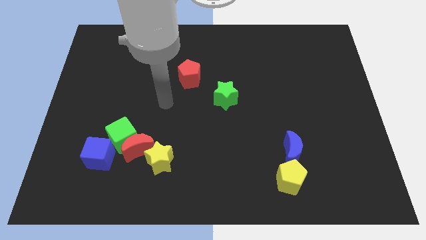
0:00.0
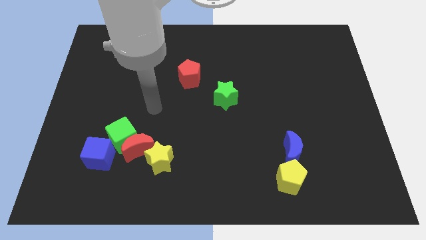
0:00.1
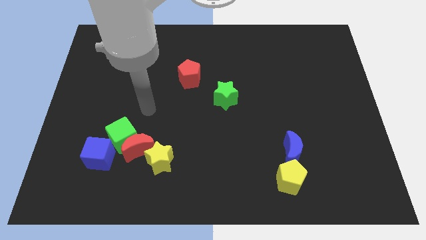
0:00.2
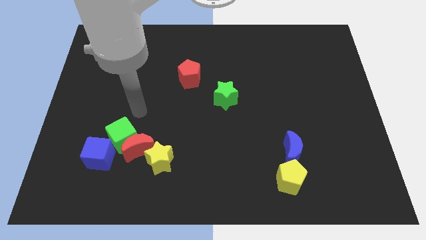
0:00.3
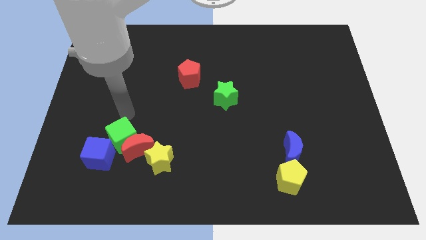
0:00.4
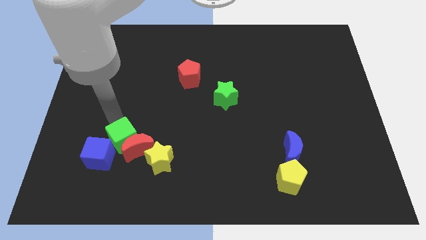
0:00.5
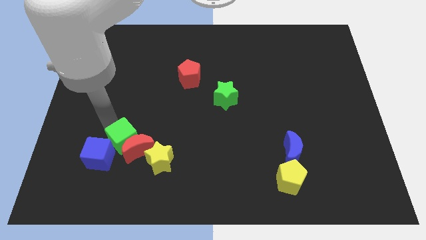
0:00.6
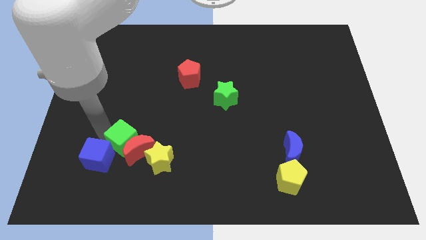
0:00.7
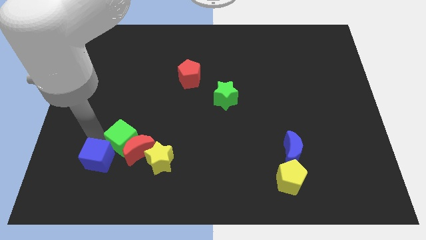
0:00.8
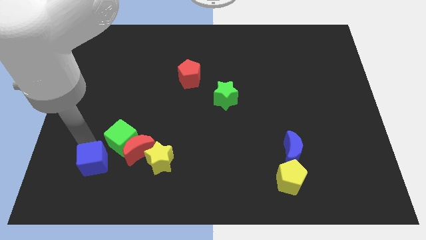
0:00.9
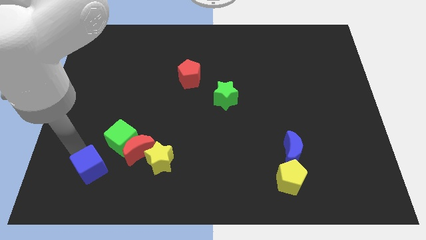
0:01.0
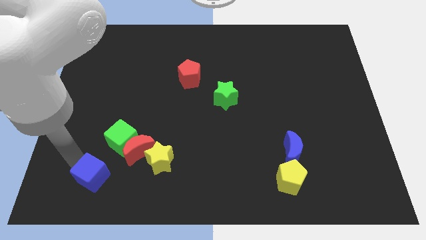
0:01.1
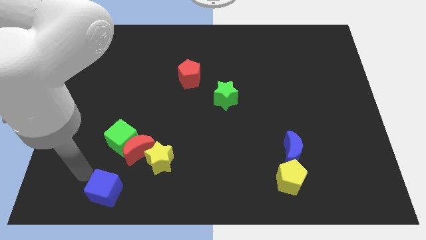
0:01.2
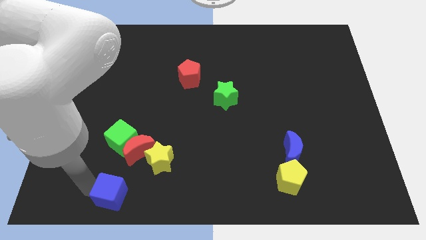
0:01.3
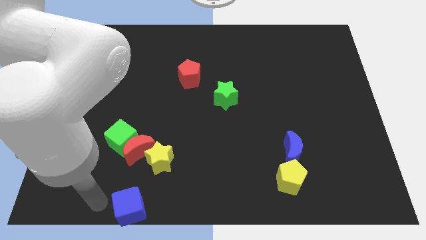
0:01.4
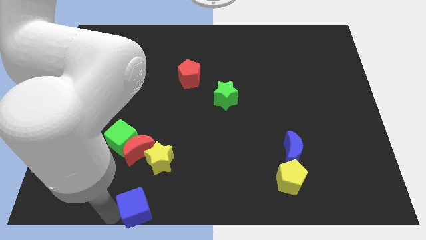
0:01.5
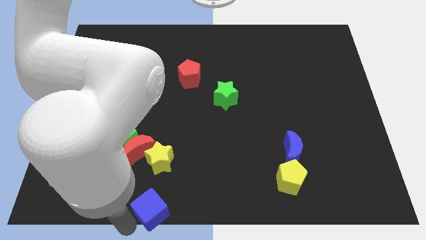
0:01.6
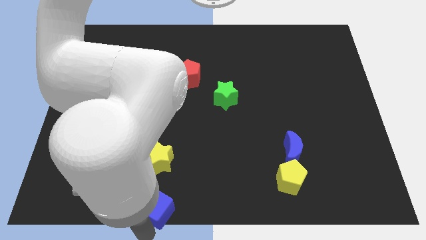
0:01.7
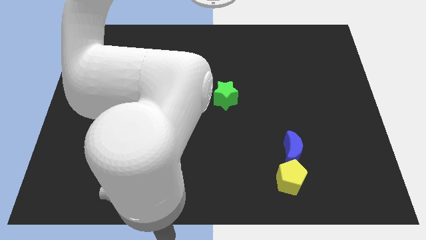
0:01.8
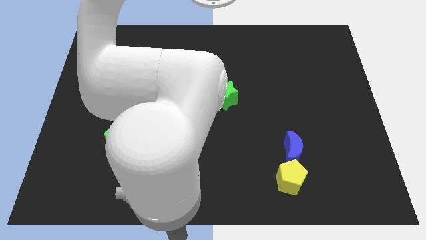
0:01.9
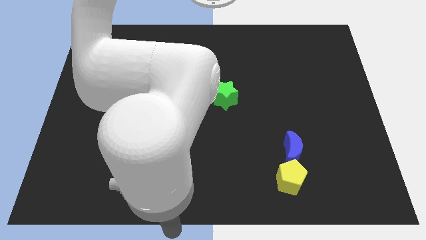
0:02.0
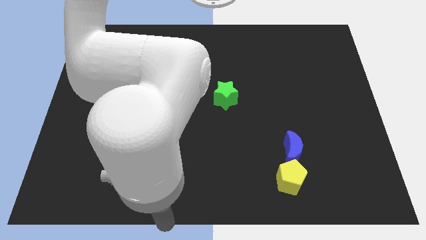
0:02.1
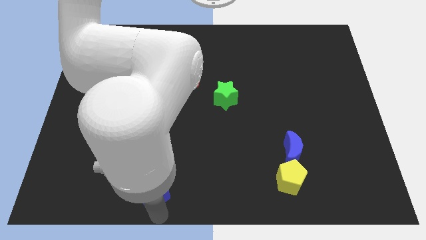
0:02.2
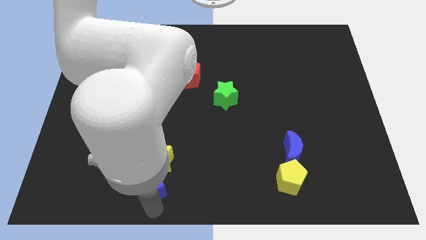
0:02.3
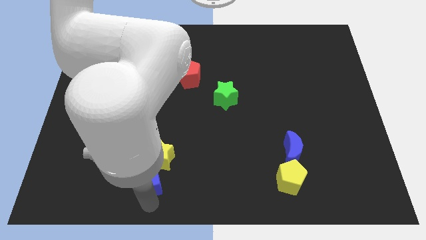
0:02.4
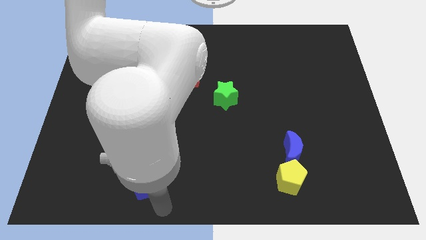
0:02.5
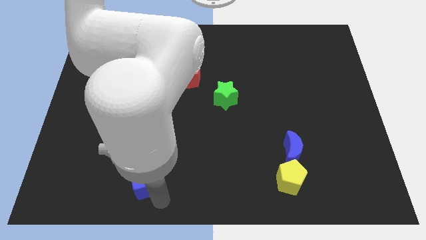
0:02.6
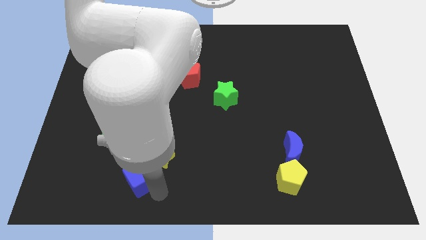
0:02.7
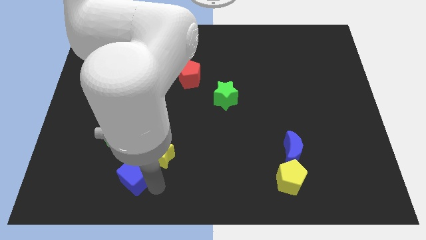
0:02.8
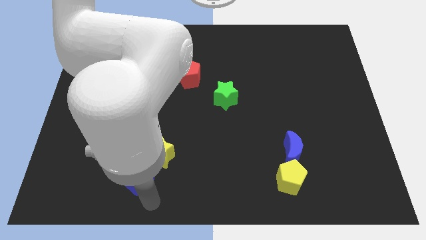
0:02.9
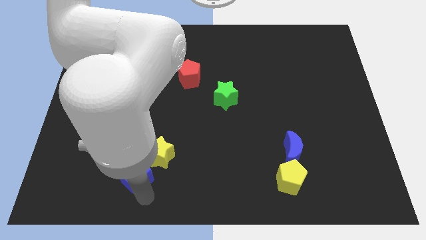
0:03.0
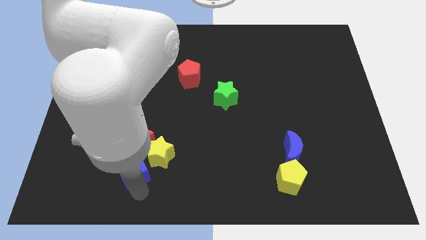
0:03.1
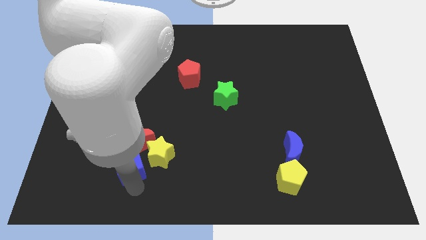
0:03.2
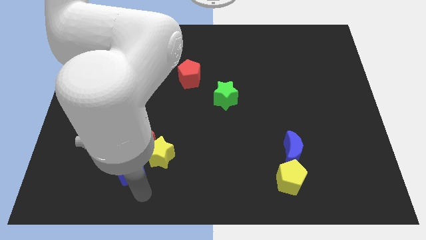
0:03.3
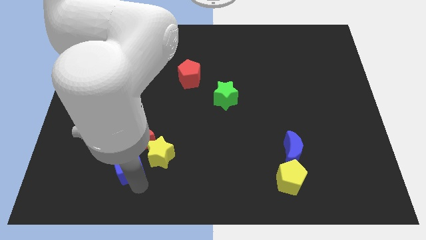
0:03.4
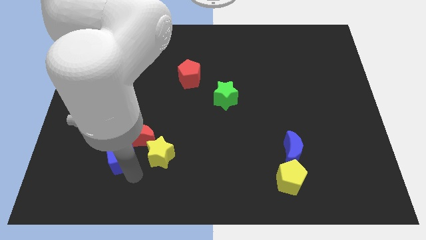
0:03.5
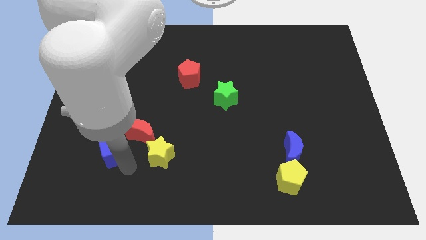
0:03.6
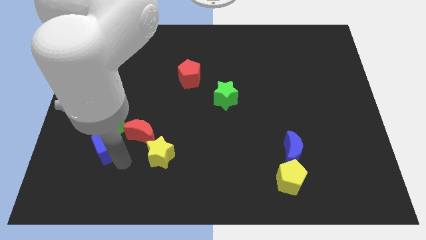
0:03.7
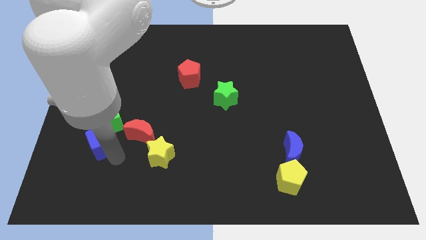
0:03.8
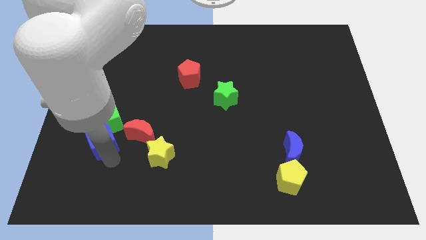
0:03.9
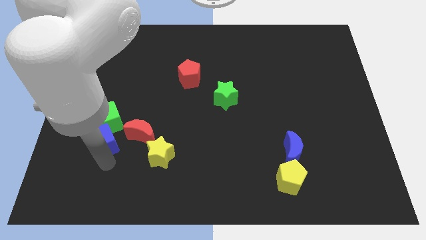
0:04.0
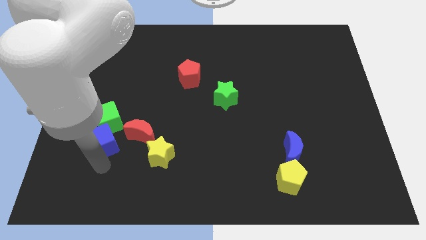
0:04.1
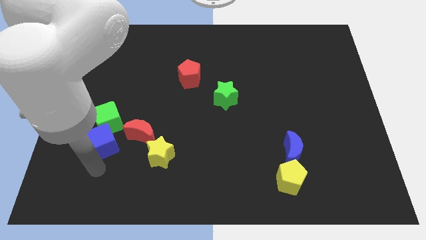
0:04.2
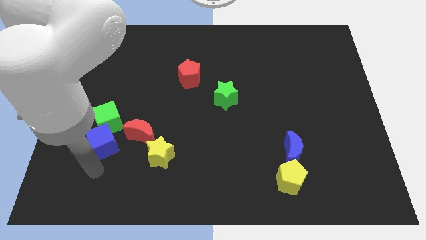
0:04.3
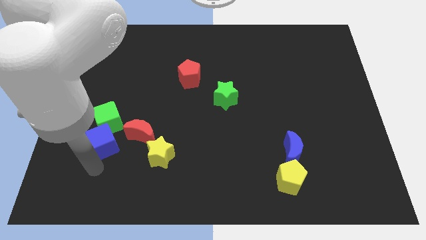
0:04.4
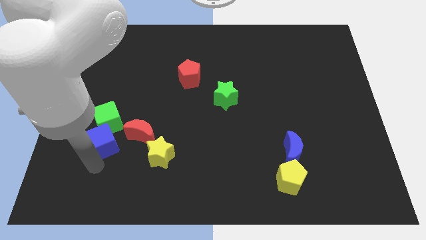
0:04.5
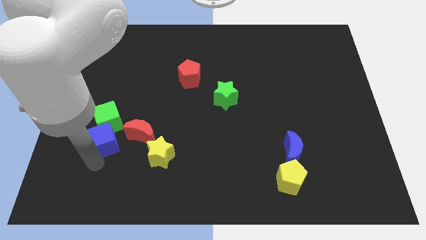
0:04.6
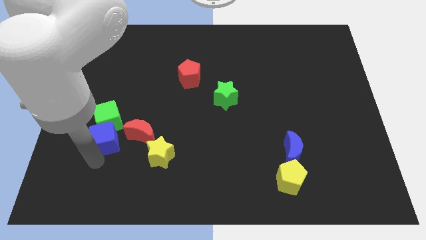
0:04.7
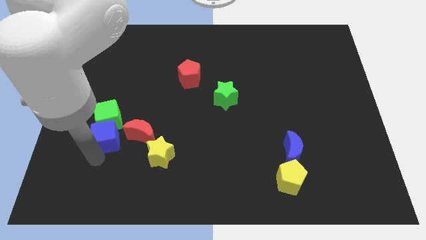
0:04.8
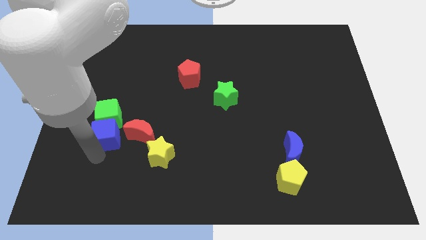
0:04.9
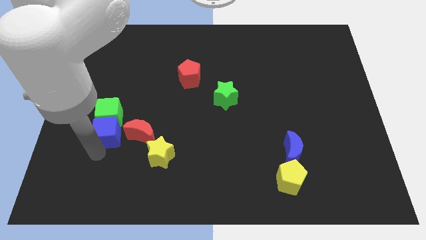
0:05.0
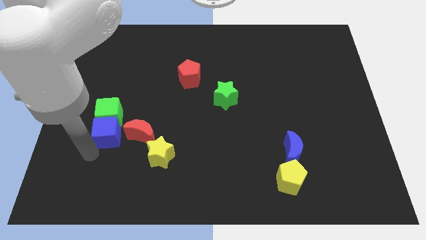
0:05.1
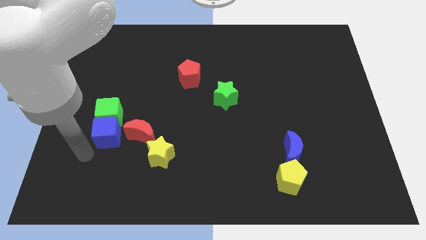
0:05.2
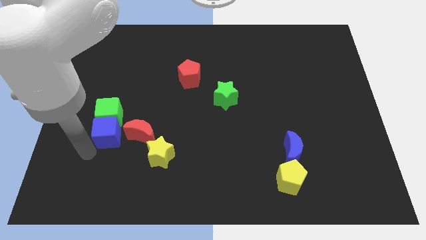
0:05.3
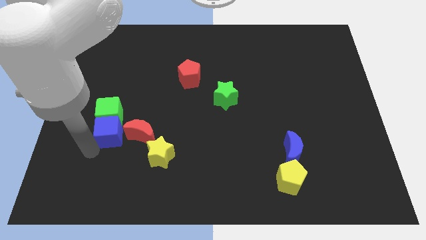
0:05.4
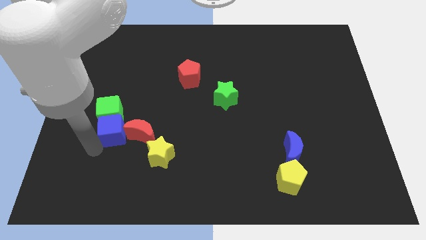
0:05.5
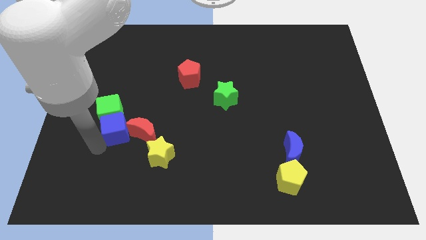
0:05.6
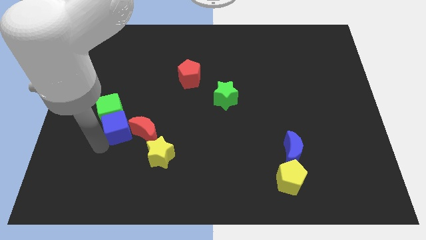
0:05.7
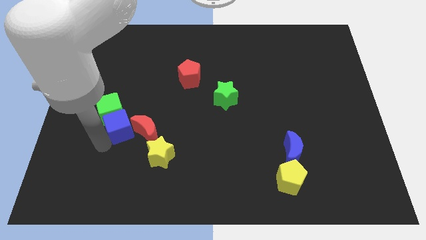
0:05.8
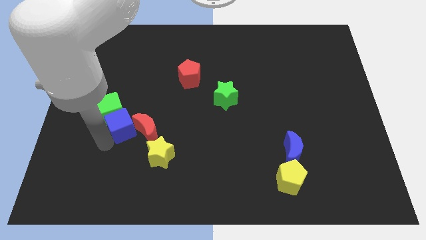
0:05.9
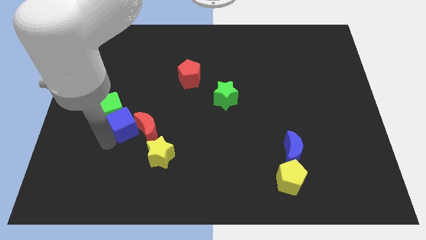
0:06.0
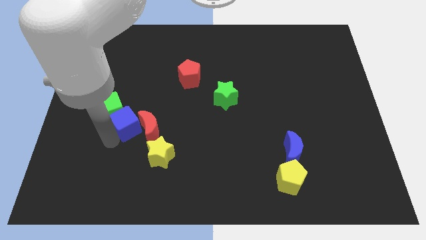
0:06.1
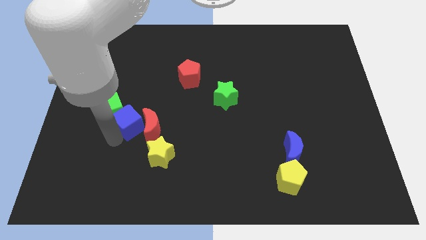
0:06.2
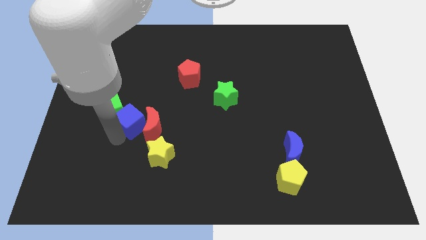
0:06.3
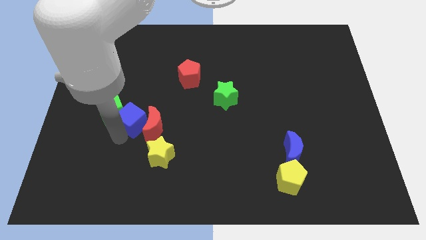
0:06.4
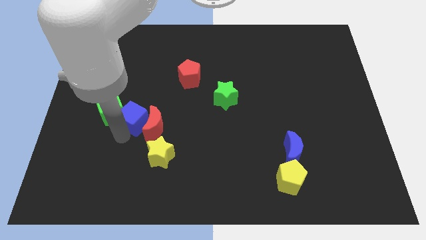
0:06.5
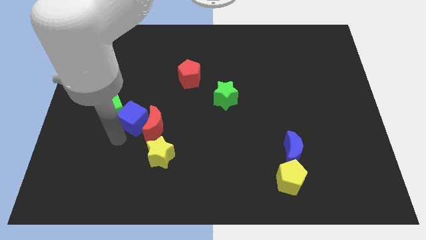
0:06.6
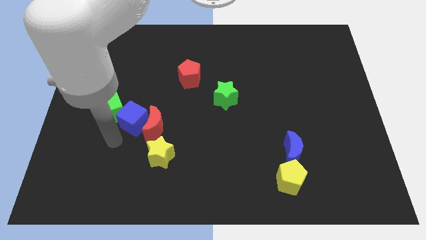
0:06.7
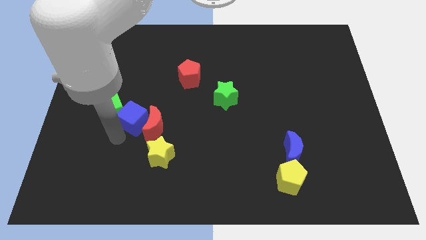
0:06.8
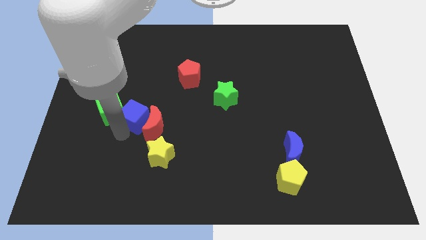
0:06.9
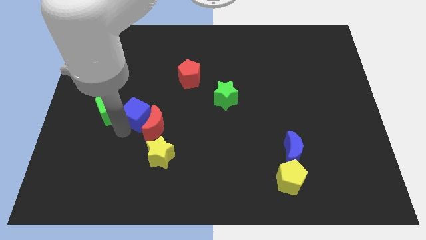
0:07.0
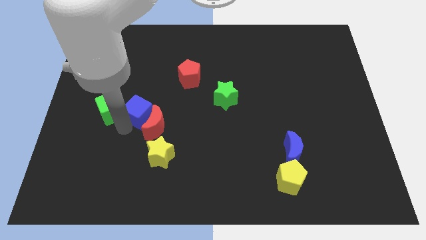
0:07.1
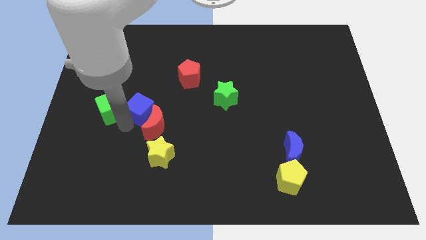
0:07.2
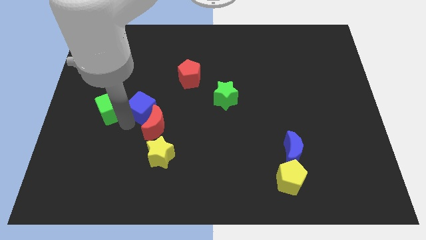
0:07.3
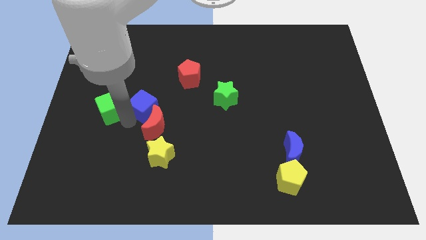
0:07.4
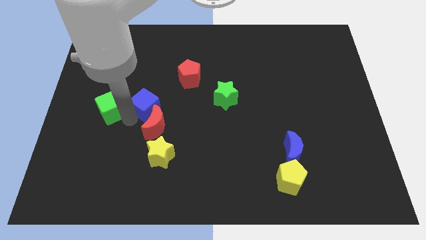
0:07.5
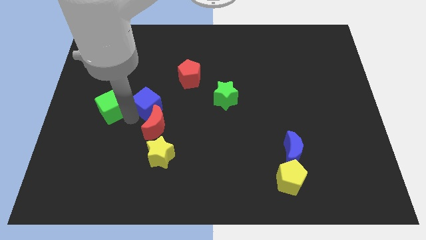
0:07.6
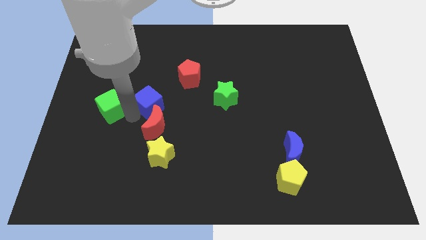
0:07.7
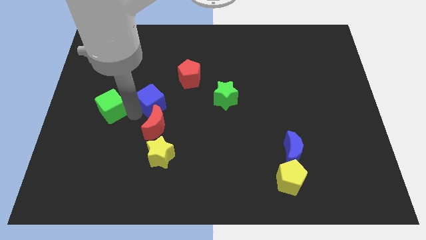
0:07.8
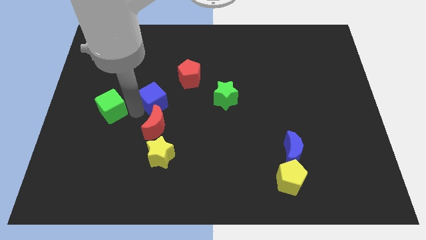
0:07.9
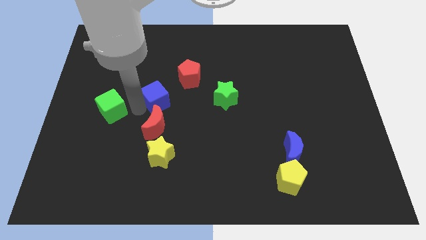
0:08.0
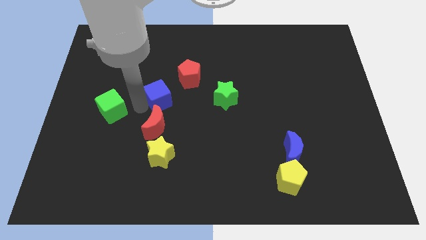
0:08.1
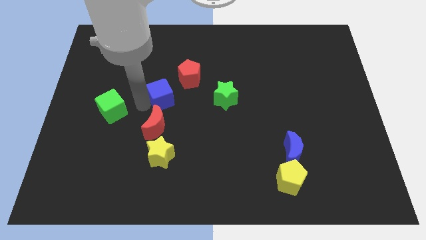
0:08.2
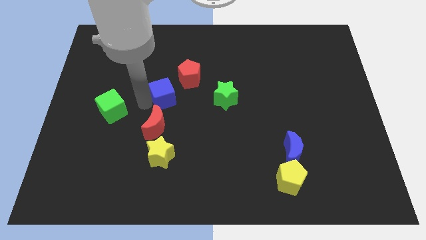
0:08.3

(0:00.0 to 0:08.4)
slide the blue cube up and right diagonally
